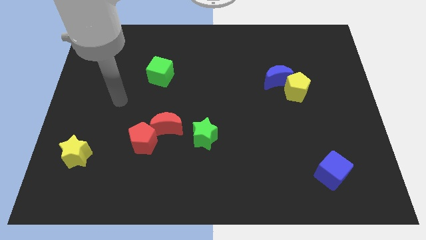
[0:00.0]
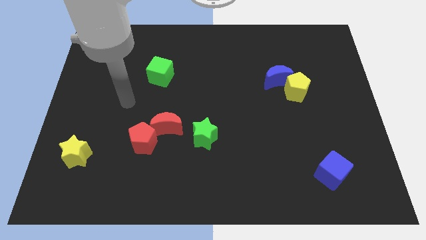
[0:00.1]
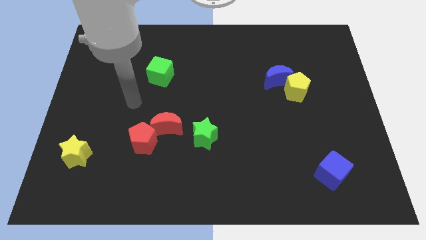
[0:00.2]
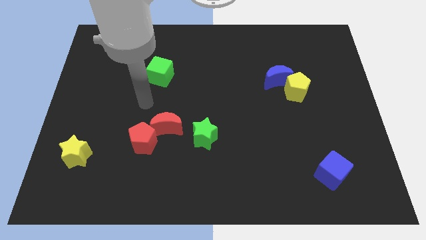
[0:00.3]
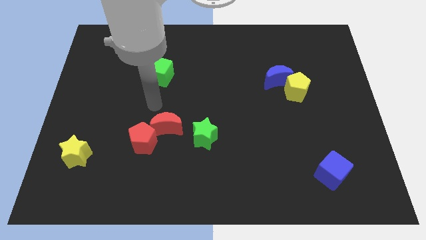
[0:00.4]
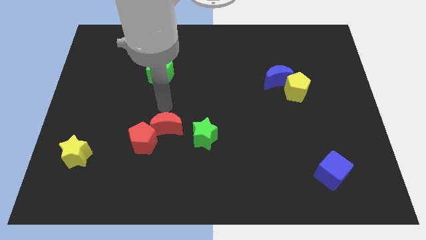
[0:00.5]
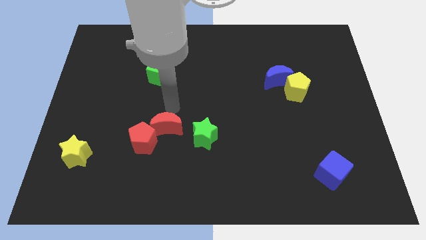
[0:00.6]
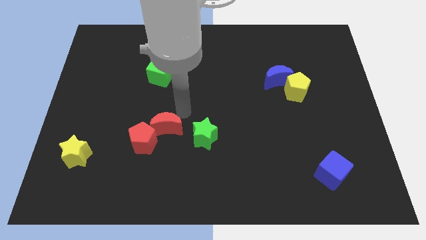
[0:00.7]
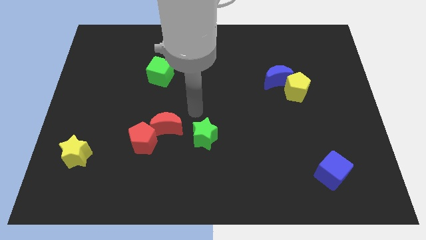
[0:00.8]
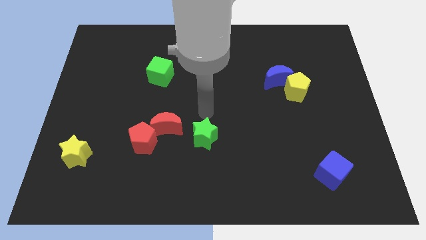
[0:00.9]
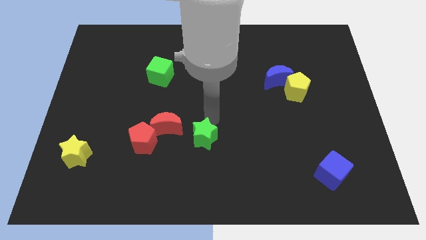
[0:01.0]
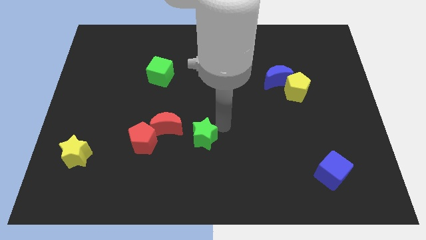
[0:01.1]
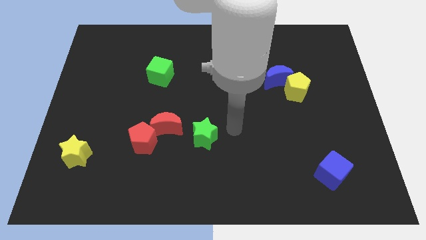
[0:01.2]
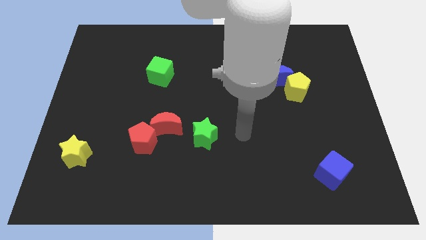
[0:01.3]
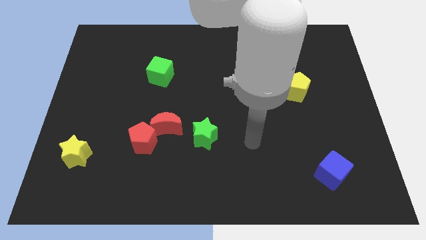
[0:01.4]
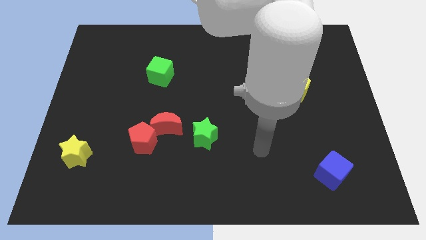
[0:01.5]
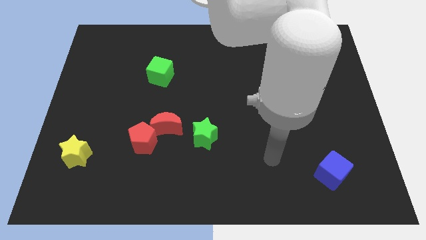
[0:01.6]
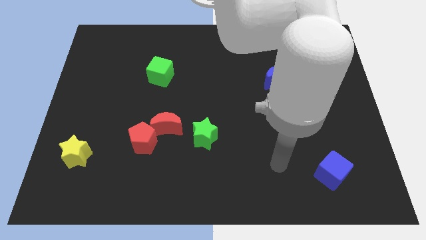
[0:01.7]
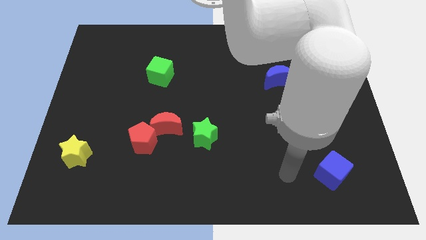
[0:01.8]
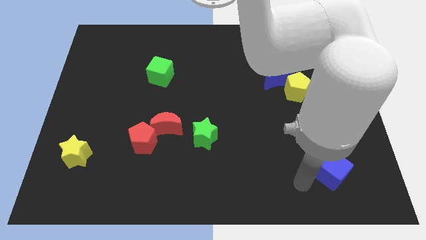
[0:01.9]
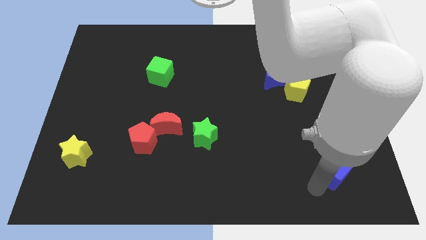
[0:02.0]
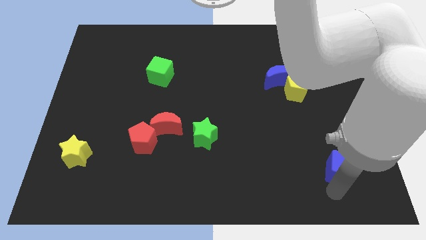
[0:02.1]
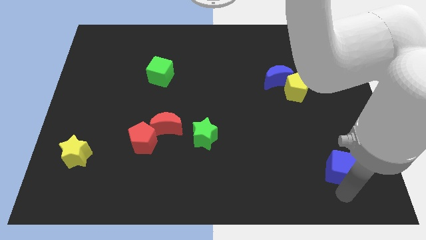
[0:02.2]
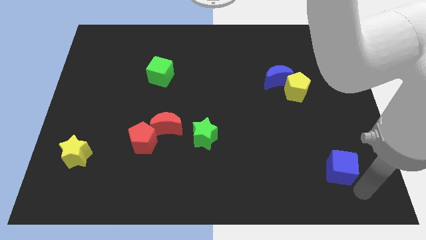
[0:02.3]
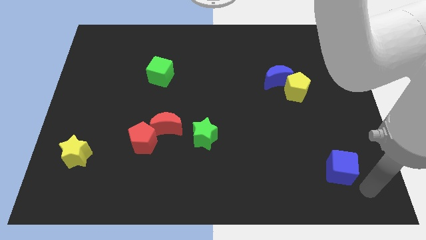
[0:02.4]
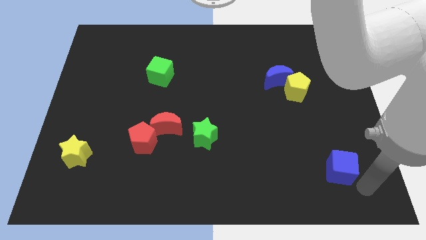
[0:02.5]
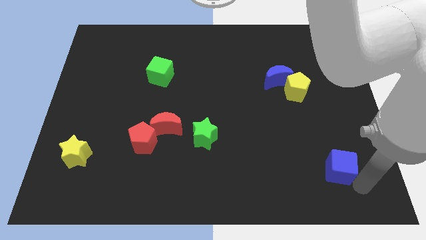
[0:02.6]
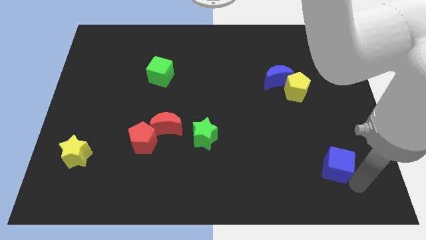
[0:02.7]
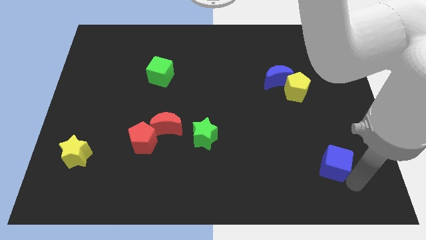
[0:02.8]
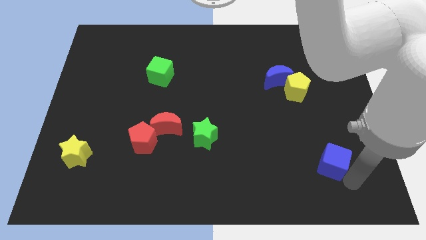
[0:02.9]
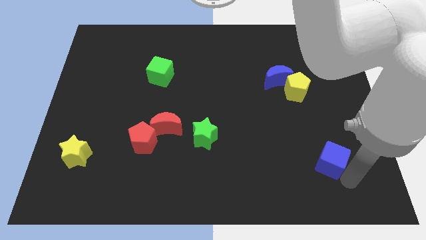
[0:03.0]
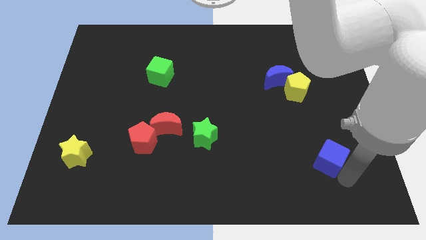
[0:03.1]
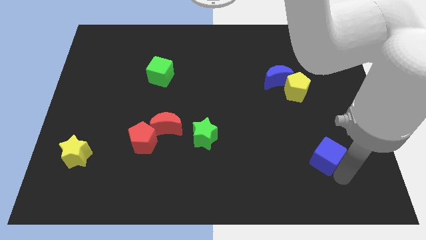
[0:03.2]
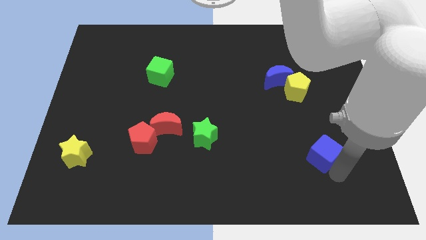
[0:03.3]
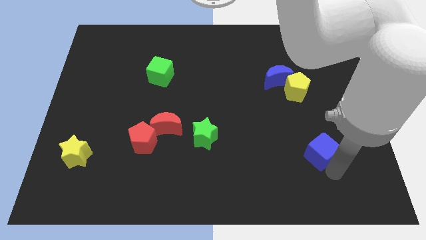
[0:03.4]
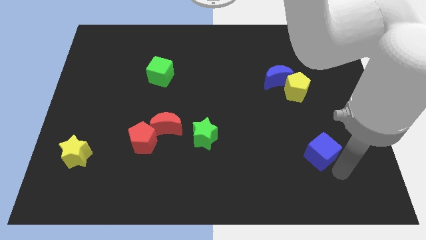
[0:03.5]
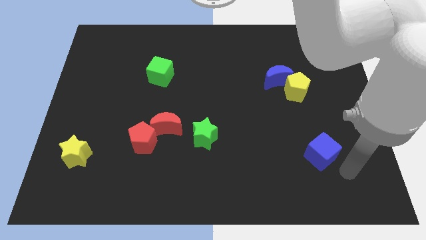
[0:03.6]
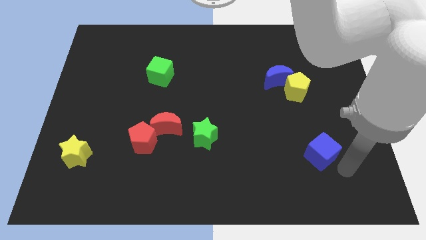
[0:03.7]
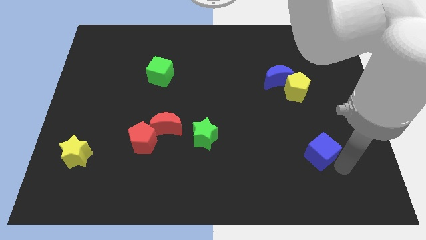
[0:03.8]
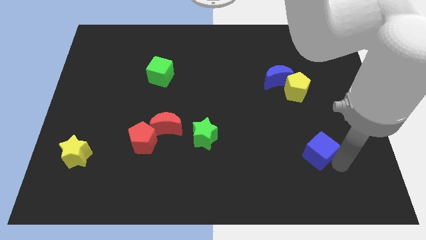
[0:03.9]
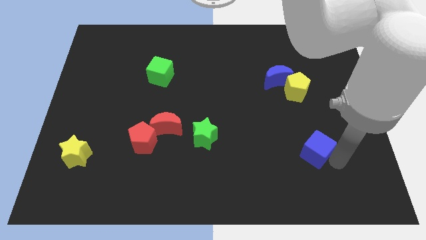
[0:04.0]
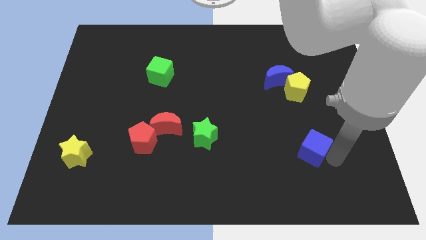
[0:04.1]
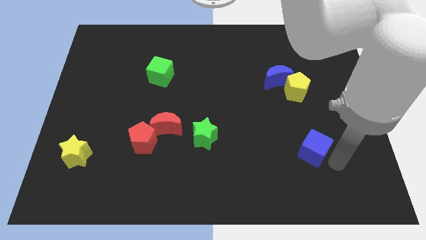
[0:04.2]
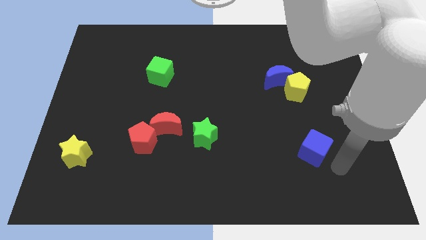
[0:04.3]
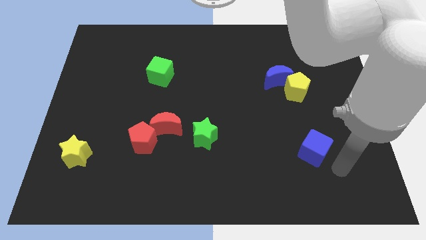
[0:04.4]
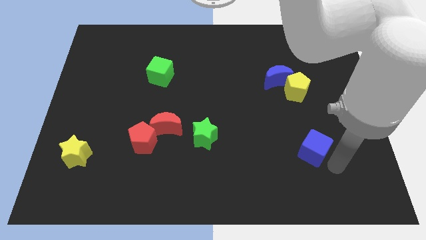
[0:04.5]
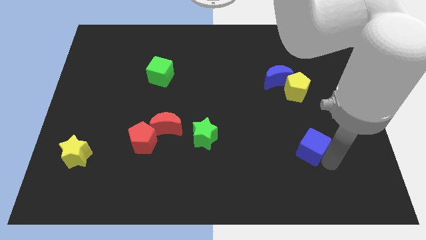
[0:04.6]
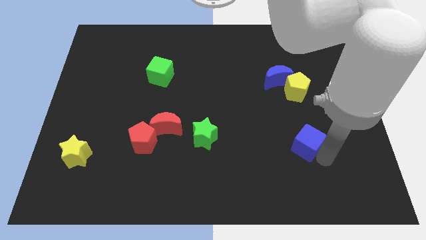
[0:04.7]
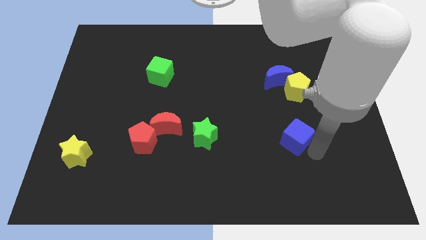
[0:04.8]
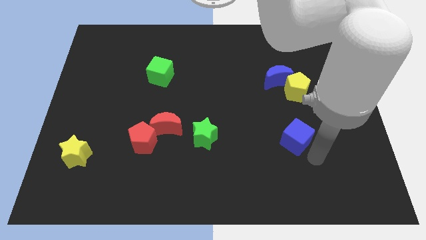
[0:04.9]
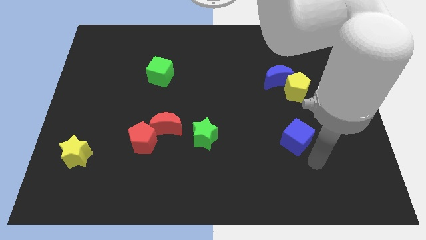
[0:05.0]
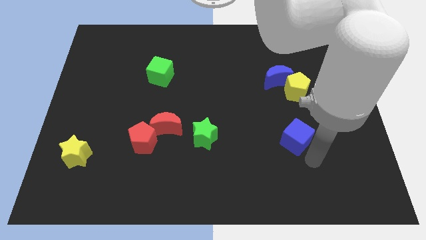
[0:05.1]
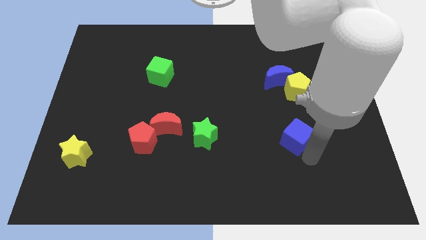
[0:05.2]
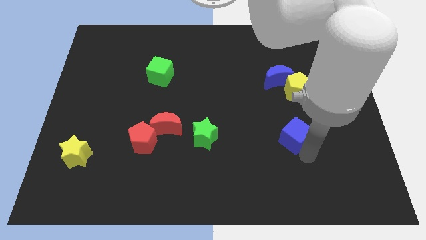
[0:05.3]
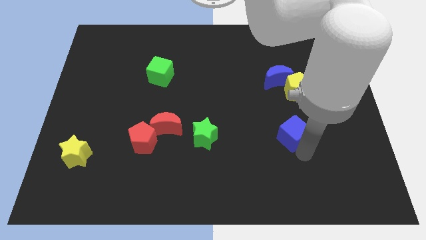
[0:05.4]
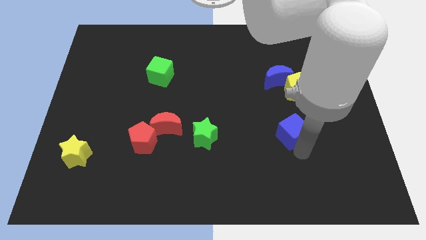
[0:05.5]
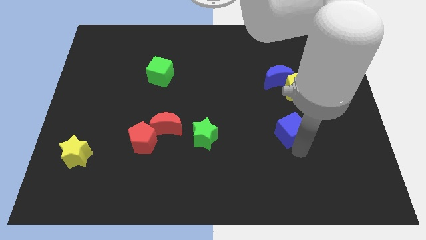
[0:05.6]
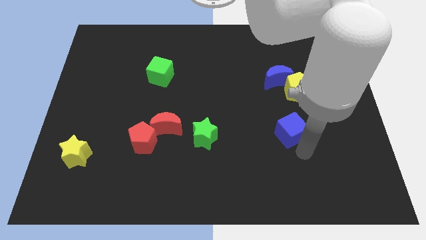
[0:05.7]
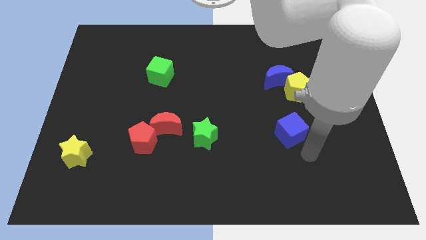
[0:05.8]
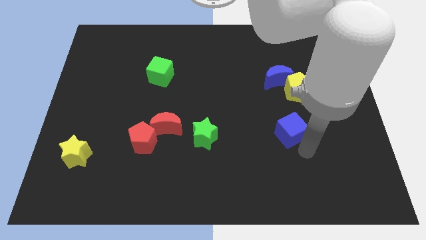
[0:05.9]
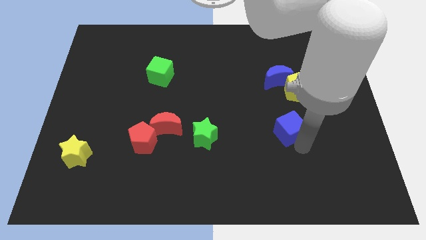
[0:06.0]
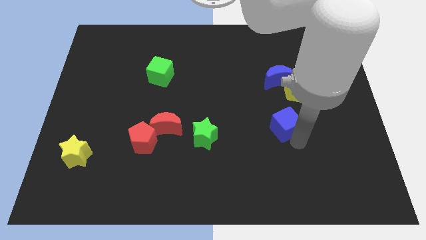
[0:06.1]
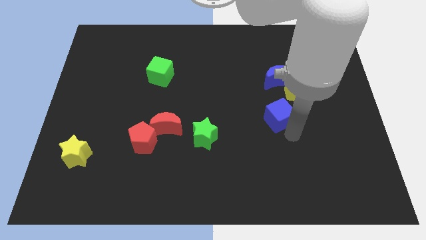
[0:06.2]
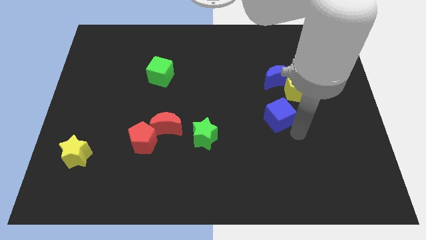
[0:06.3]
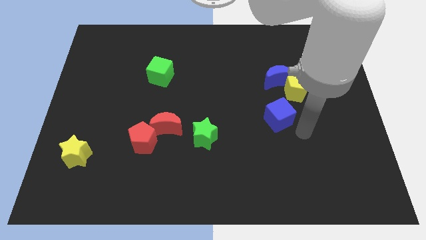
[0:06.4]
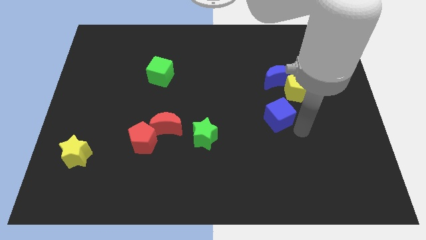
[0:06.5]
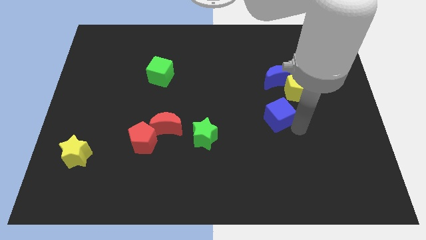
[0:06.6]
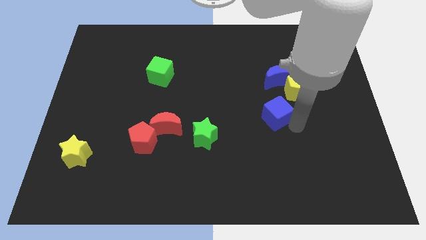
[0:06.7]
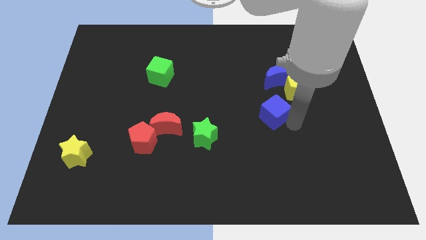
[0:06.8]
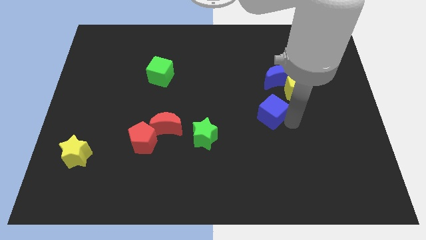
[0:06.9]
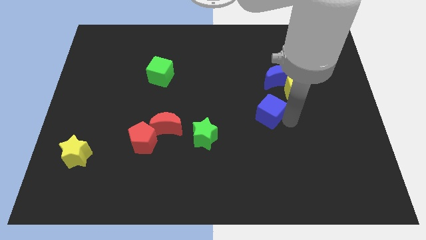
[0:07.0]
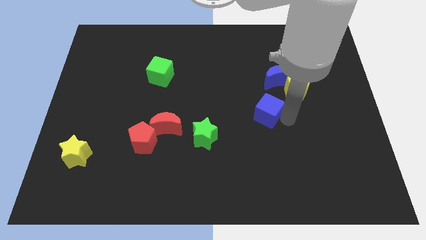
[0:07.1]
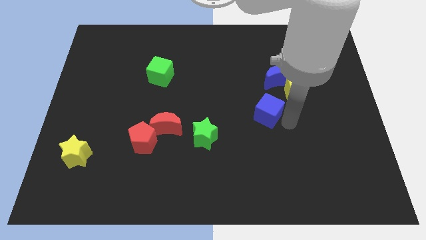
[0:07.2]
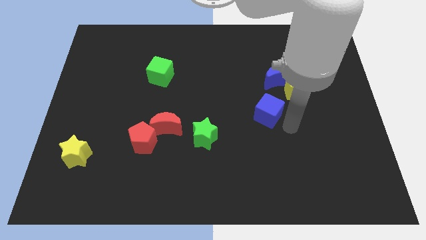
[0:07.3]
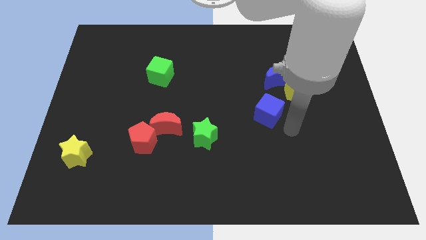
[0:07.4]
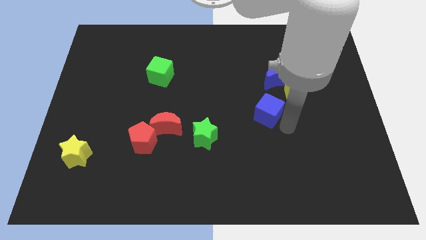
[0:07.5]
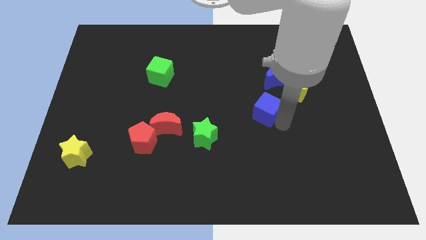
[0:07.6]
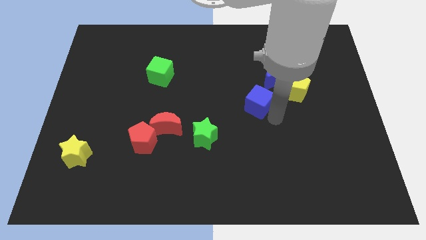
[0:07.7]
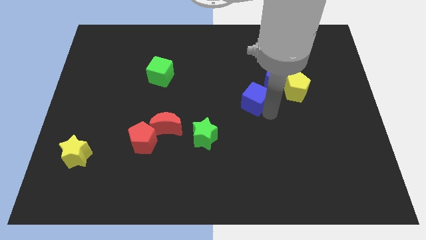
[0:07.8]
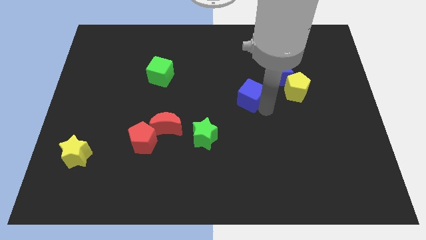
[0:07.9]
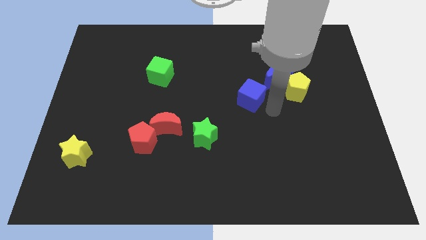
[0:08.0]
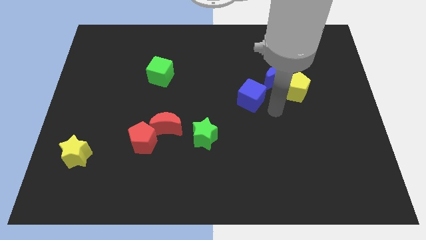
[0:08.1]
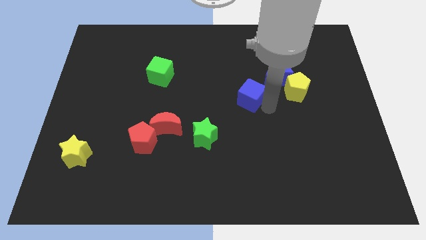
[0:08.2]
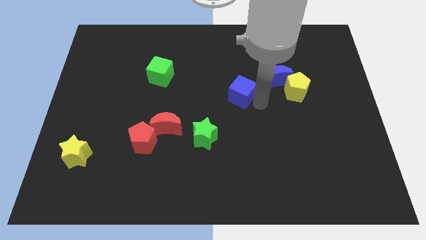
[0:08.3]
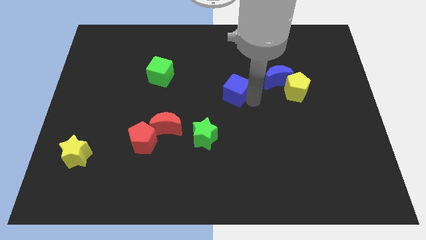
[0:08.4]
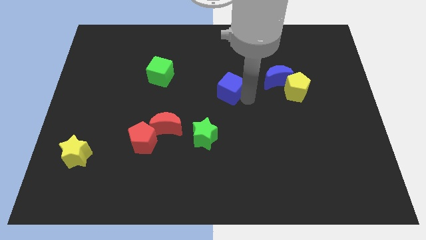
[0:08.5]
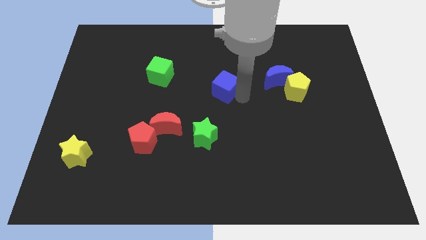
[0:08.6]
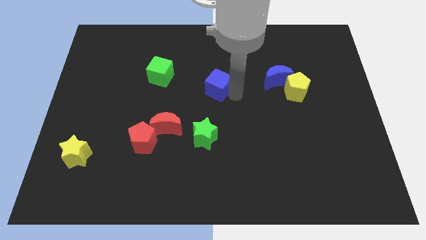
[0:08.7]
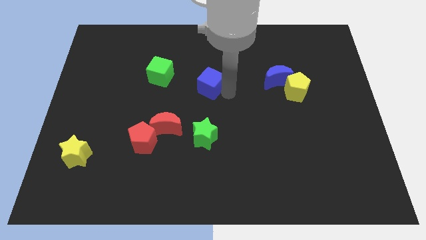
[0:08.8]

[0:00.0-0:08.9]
move the blue cube right of the green cube
